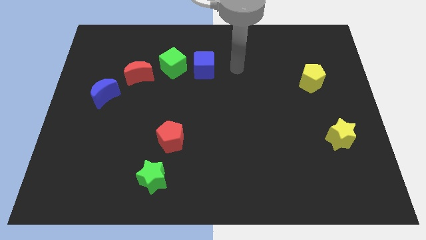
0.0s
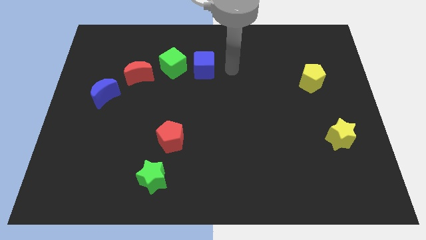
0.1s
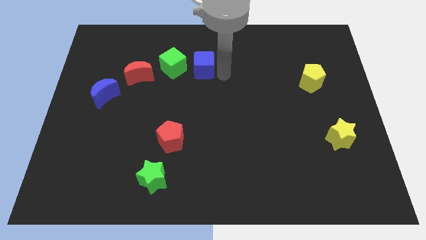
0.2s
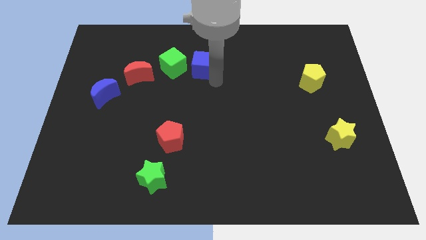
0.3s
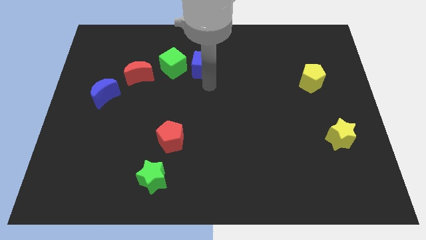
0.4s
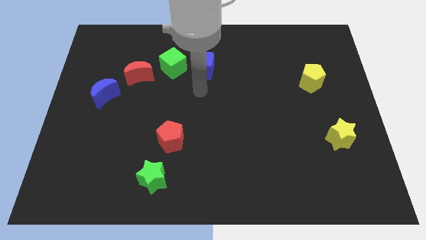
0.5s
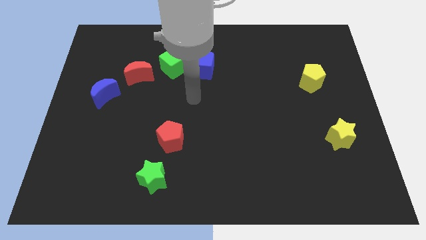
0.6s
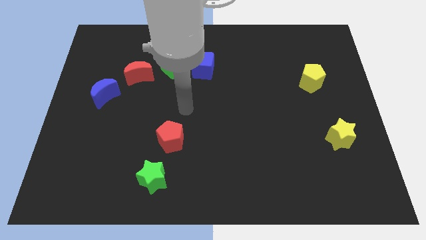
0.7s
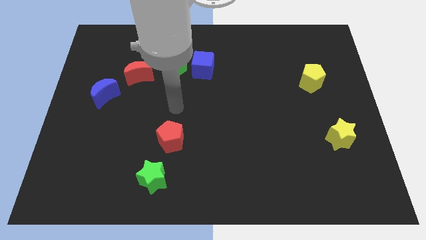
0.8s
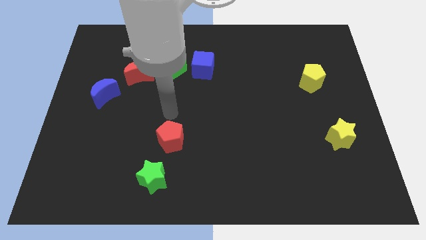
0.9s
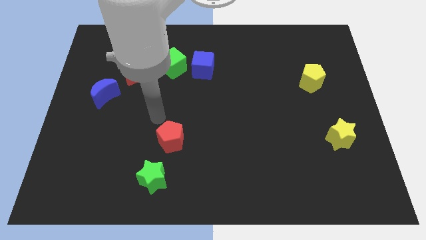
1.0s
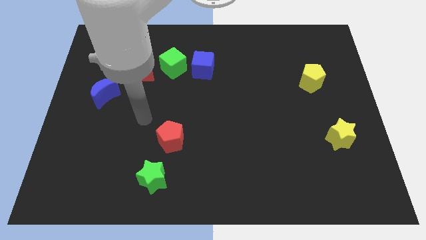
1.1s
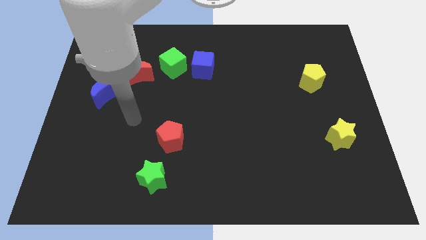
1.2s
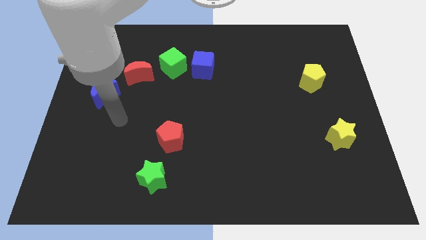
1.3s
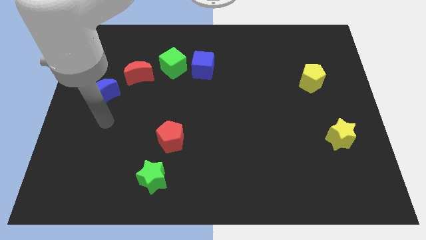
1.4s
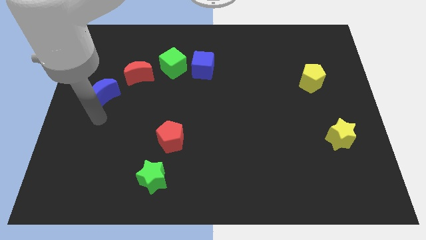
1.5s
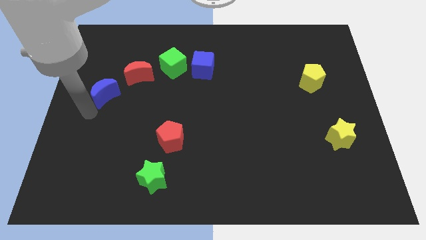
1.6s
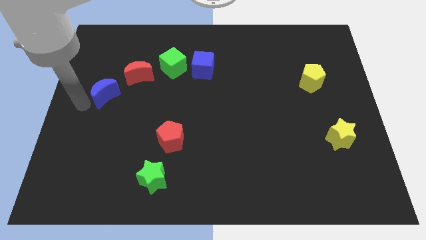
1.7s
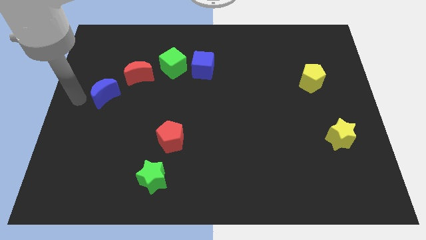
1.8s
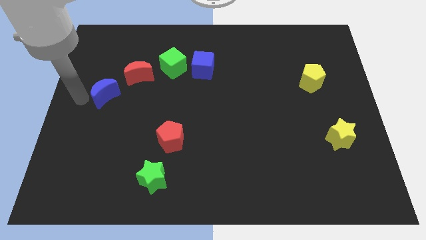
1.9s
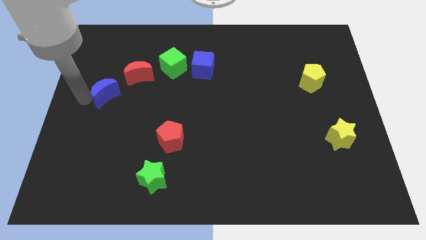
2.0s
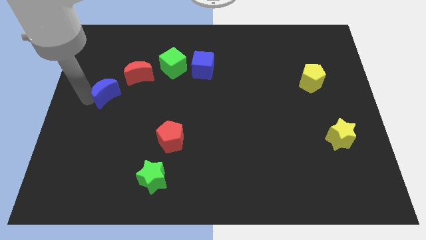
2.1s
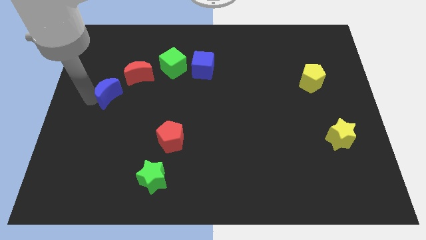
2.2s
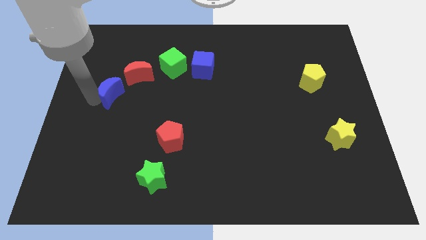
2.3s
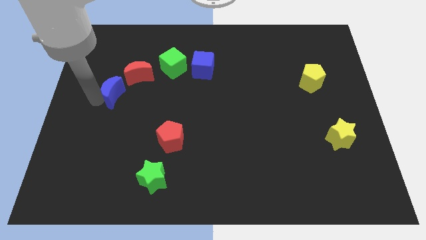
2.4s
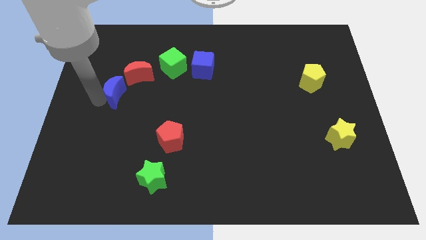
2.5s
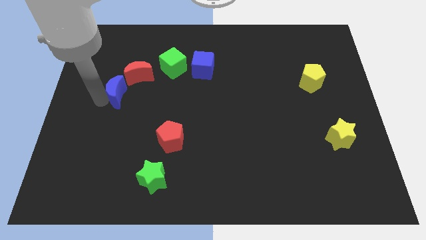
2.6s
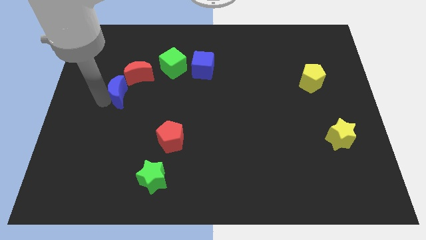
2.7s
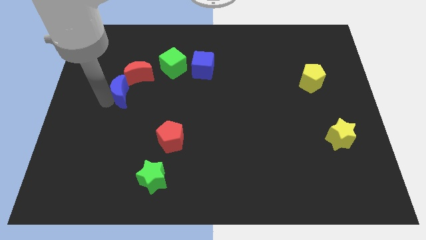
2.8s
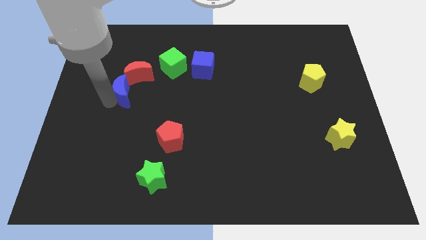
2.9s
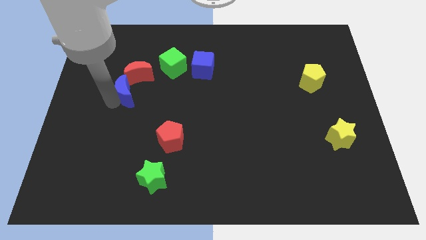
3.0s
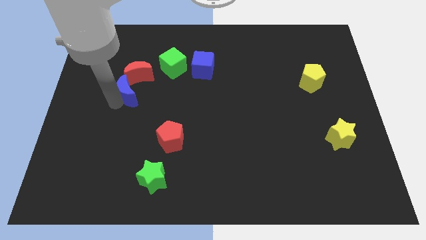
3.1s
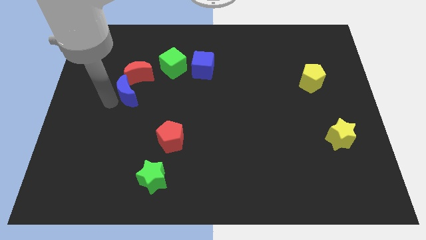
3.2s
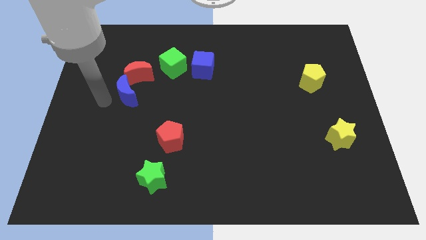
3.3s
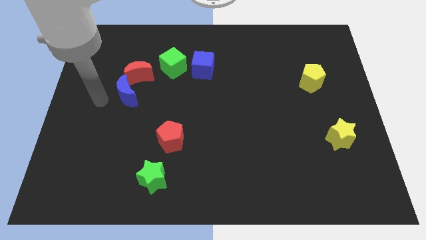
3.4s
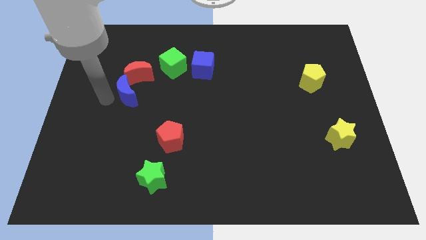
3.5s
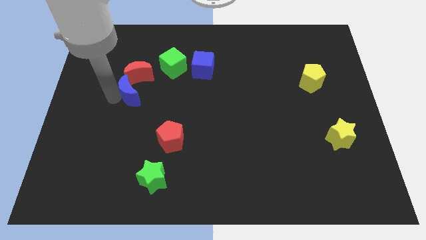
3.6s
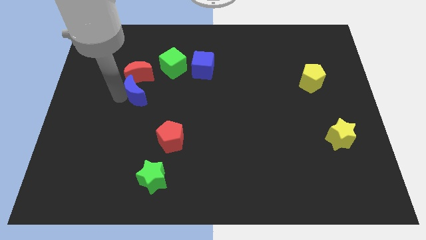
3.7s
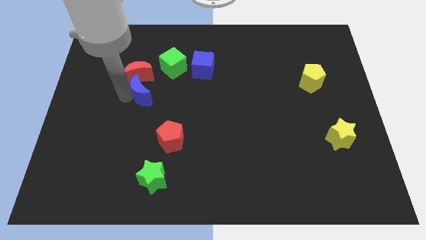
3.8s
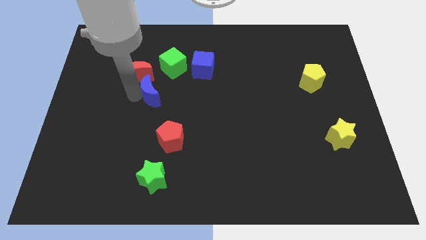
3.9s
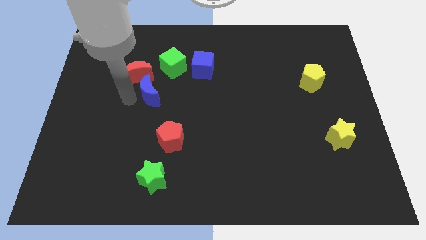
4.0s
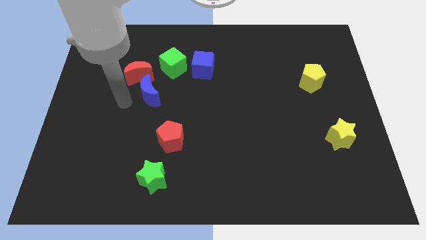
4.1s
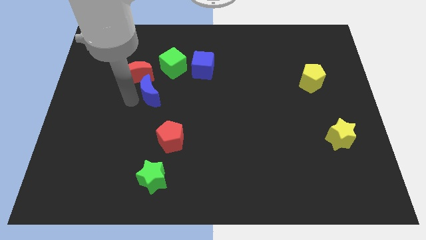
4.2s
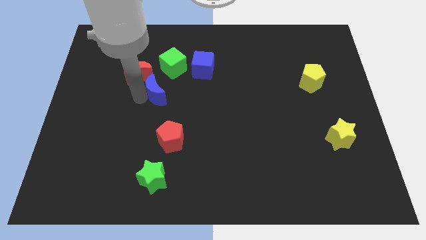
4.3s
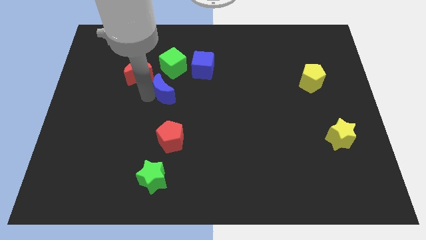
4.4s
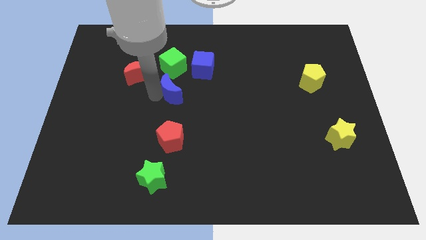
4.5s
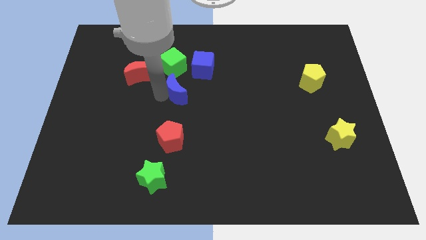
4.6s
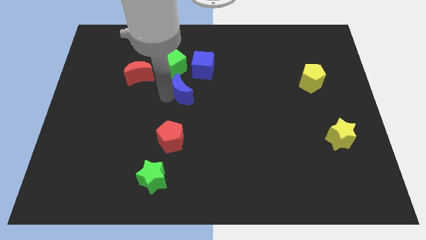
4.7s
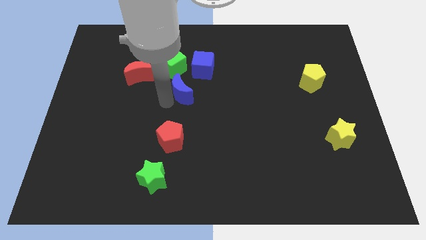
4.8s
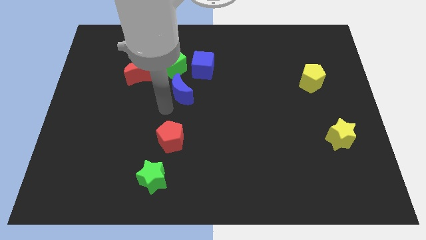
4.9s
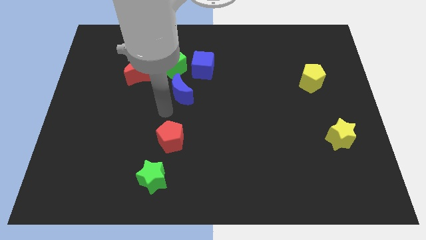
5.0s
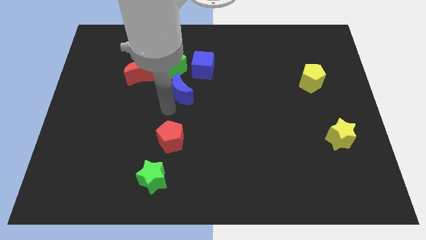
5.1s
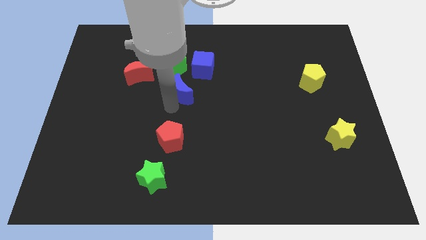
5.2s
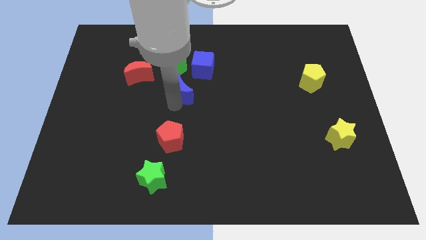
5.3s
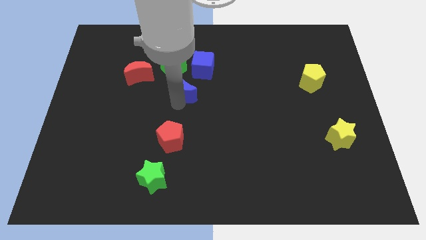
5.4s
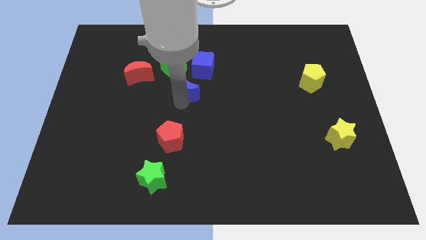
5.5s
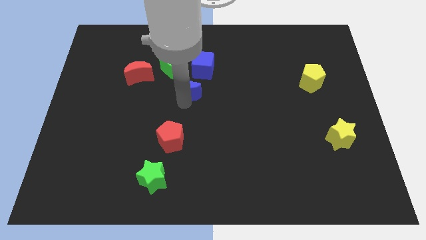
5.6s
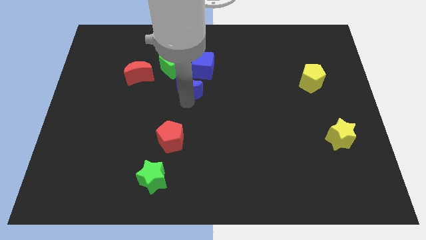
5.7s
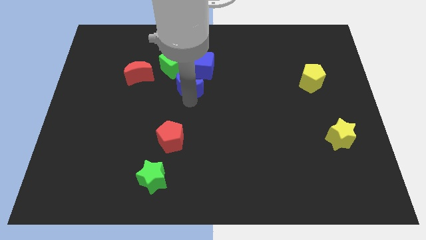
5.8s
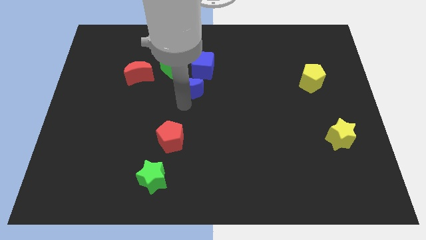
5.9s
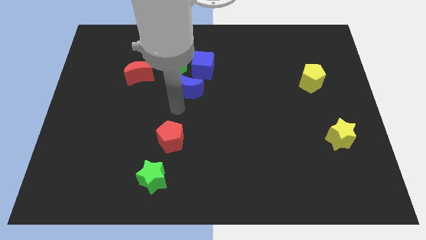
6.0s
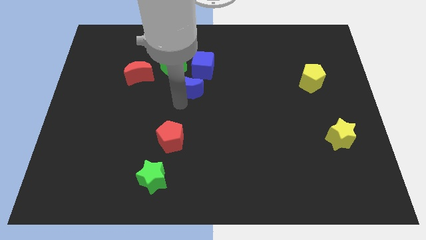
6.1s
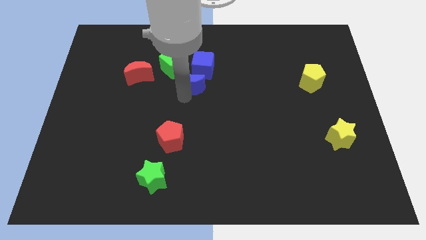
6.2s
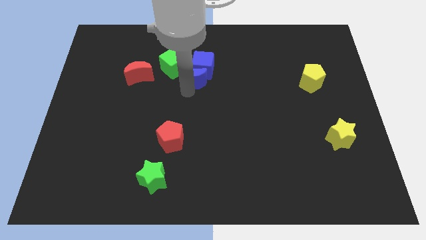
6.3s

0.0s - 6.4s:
move the blue moon next to the blue cube

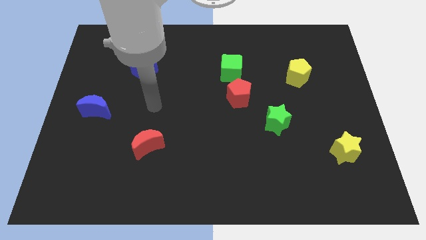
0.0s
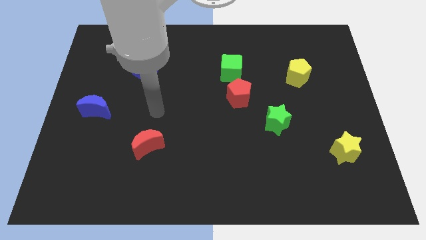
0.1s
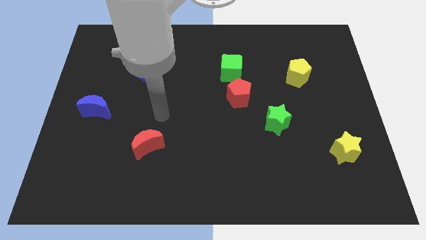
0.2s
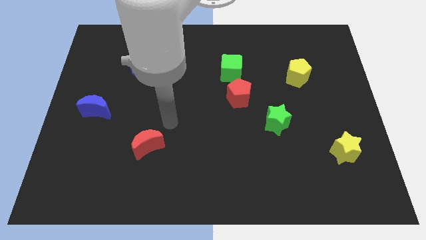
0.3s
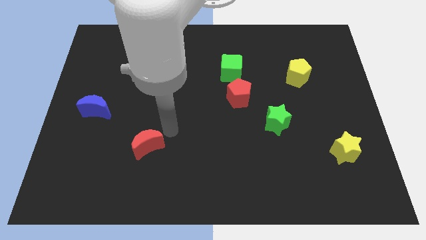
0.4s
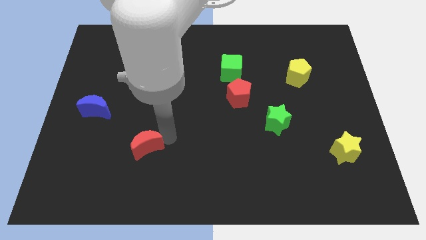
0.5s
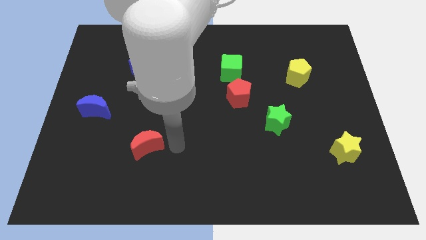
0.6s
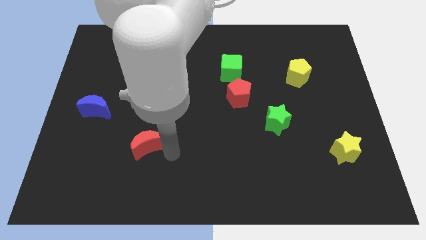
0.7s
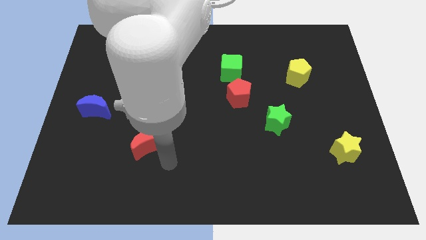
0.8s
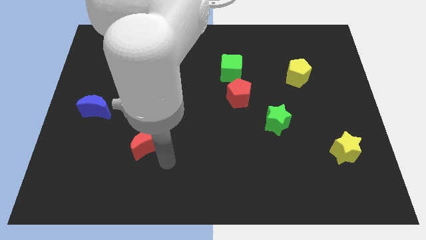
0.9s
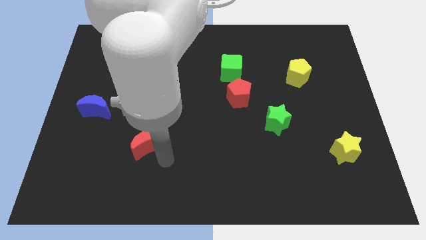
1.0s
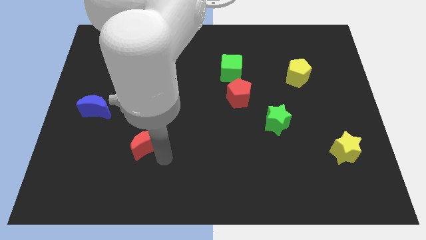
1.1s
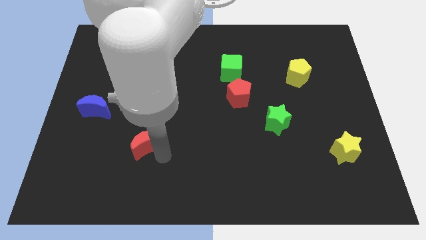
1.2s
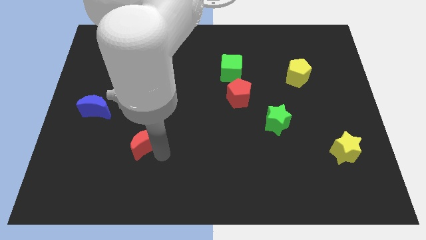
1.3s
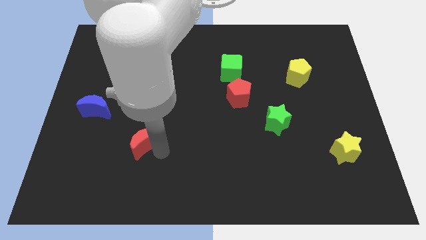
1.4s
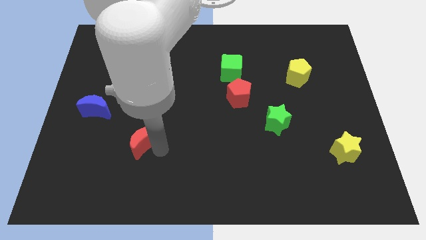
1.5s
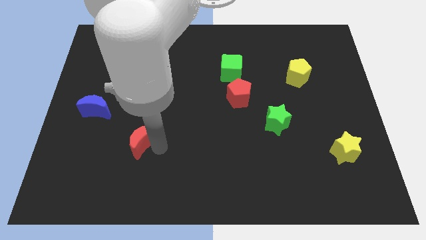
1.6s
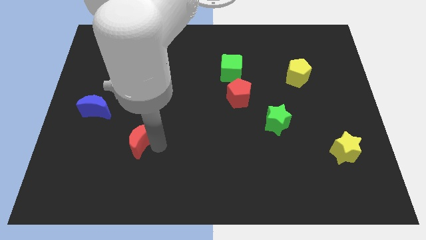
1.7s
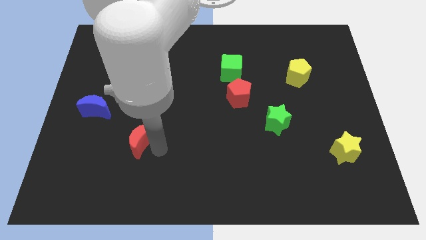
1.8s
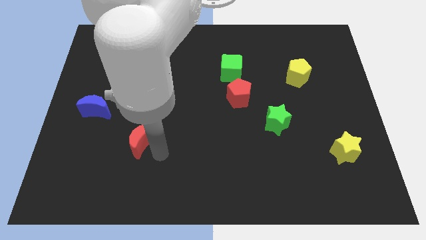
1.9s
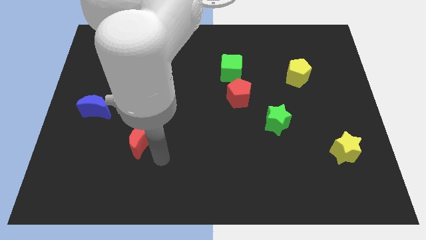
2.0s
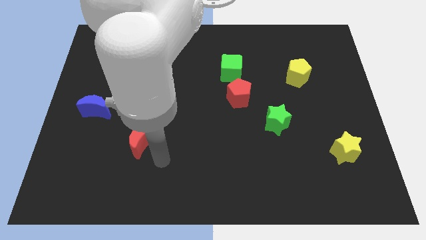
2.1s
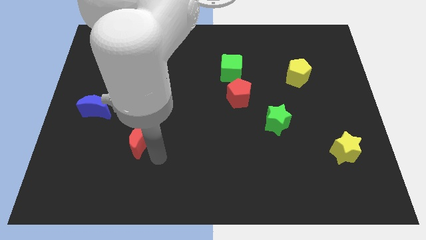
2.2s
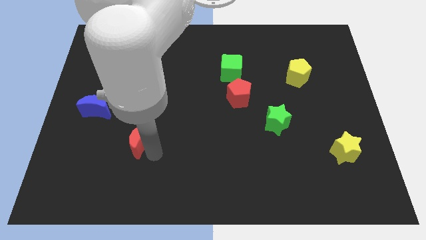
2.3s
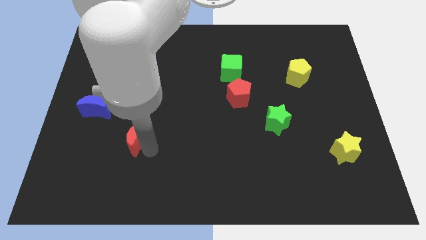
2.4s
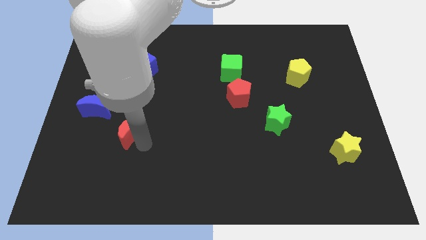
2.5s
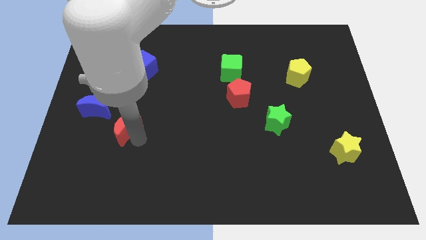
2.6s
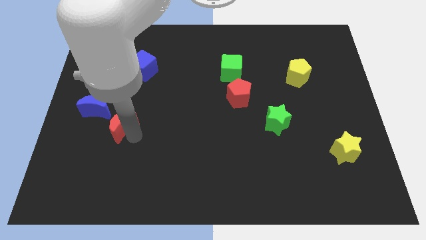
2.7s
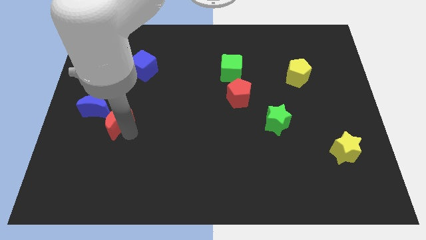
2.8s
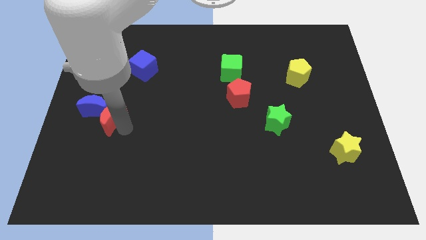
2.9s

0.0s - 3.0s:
slide the red moon to the blue moon
